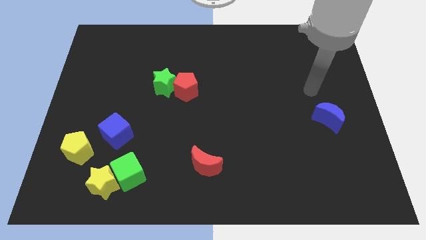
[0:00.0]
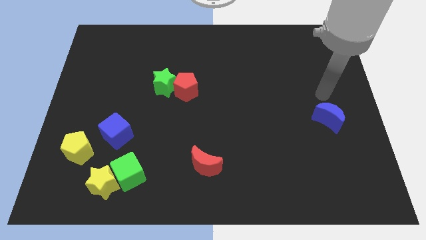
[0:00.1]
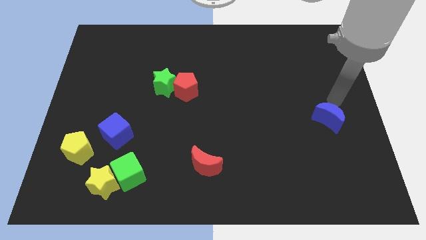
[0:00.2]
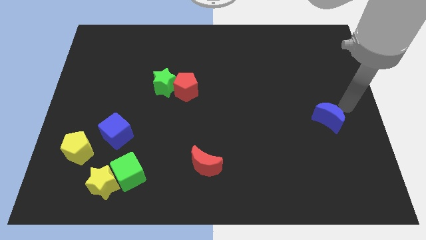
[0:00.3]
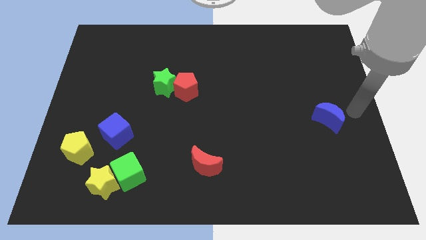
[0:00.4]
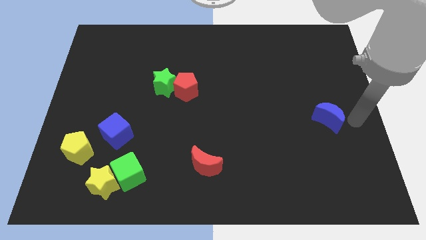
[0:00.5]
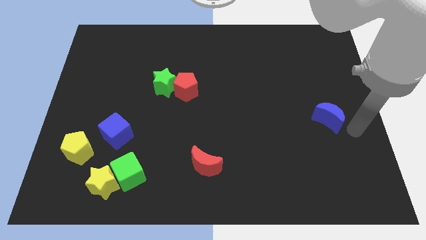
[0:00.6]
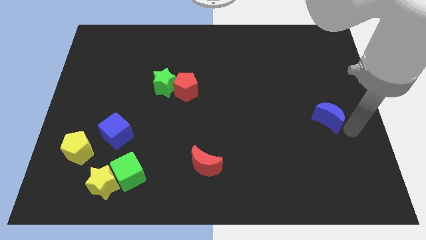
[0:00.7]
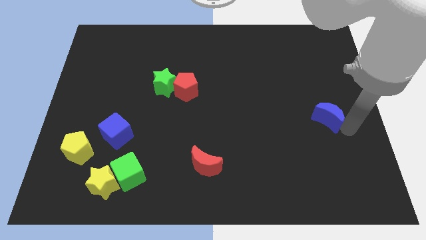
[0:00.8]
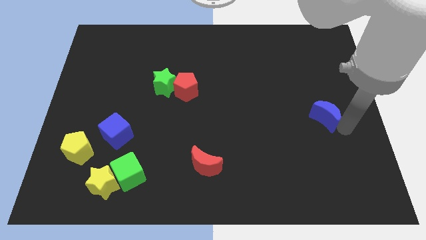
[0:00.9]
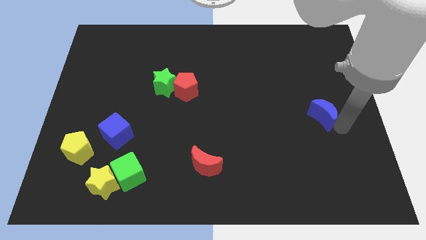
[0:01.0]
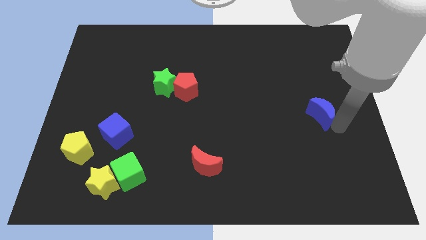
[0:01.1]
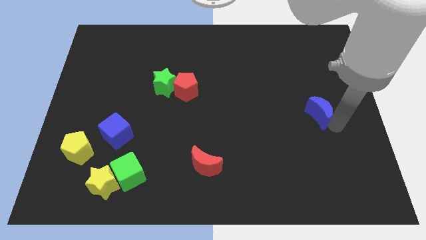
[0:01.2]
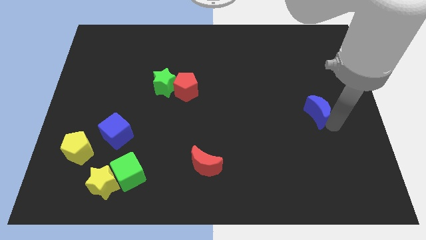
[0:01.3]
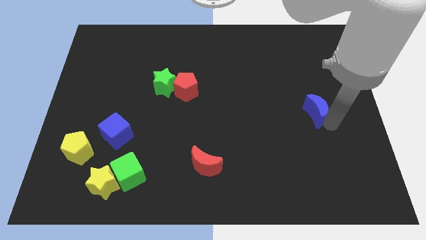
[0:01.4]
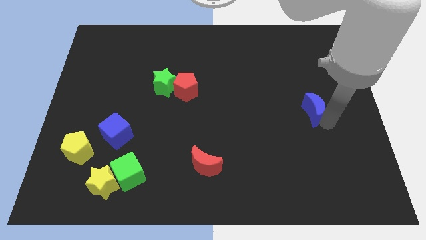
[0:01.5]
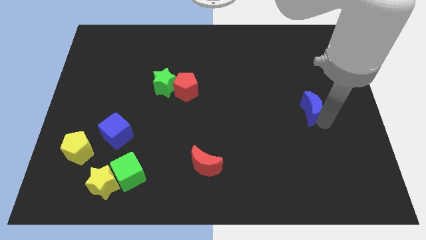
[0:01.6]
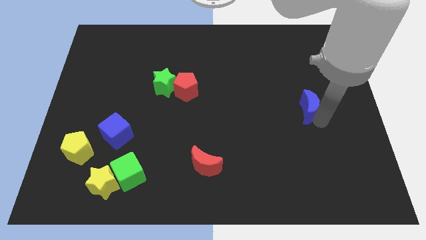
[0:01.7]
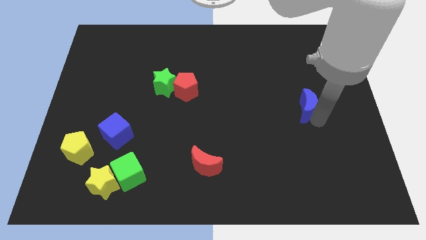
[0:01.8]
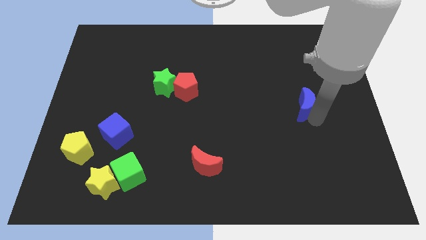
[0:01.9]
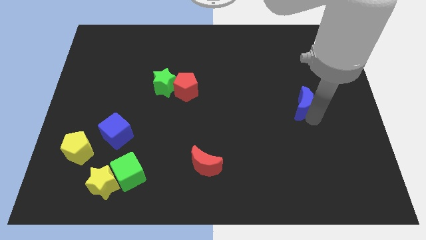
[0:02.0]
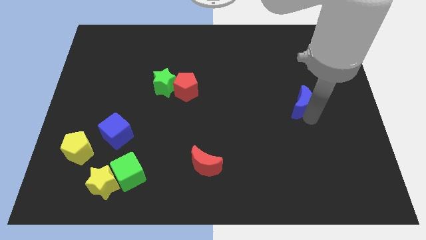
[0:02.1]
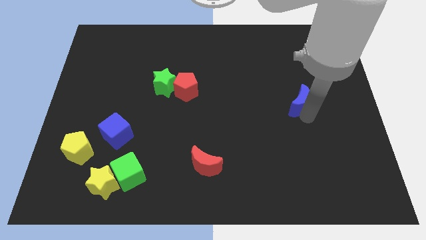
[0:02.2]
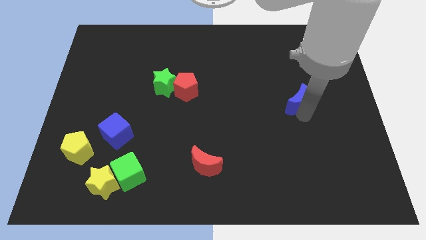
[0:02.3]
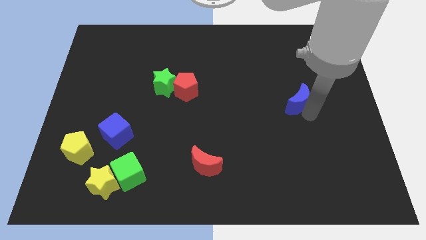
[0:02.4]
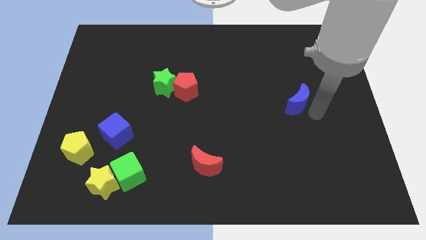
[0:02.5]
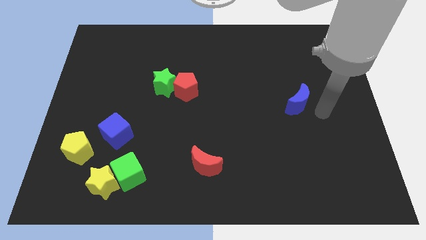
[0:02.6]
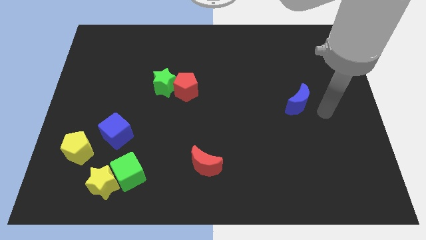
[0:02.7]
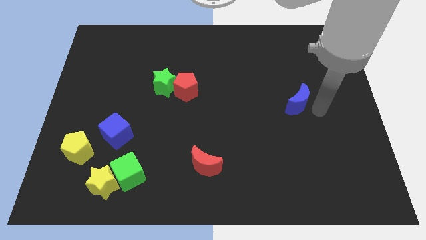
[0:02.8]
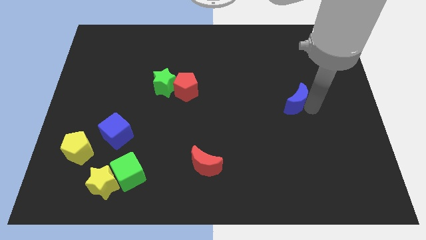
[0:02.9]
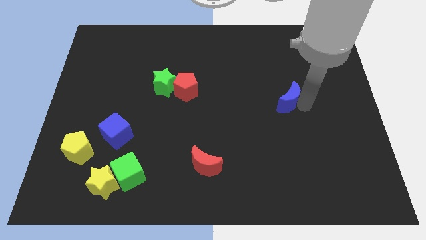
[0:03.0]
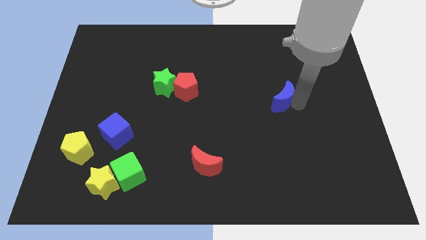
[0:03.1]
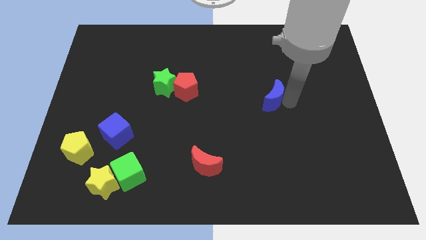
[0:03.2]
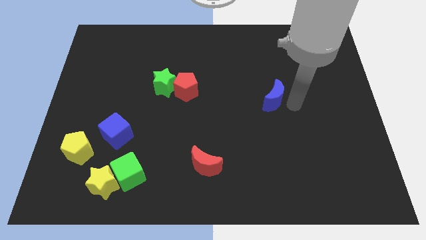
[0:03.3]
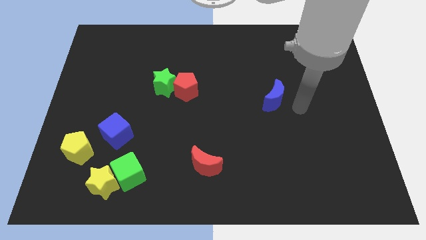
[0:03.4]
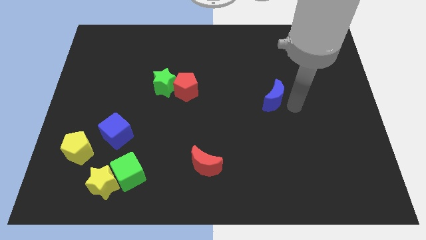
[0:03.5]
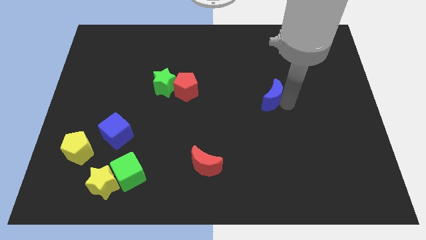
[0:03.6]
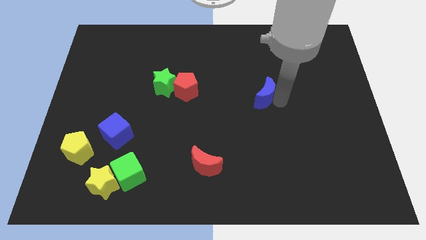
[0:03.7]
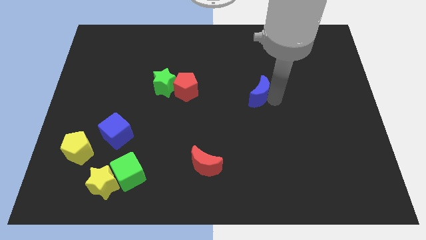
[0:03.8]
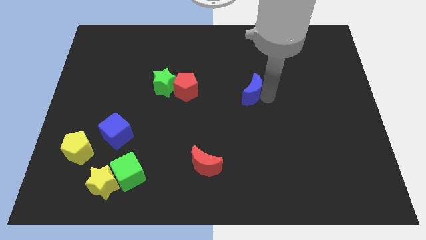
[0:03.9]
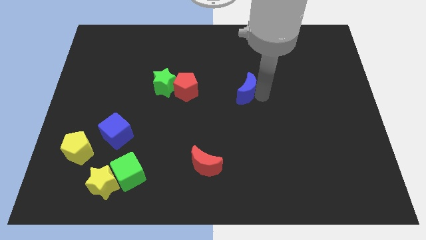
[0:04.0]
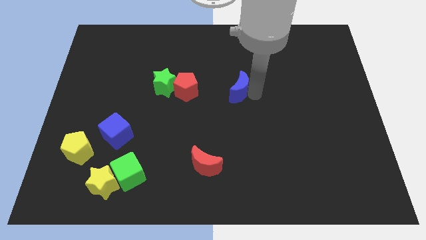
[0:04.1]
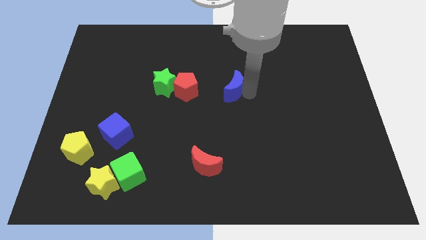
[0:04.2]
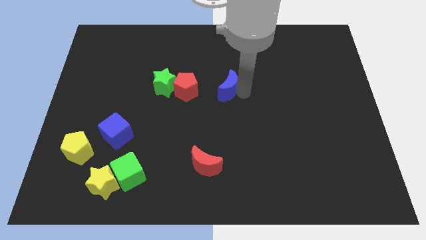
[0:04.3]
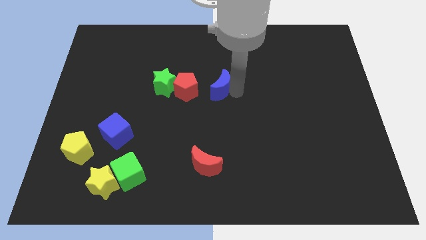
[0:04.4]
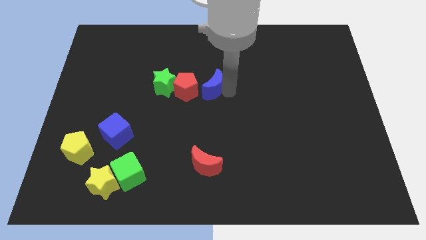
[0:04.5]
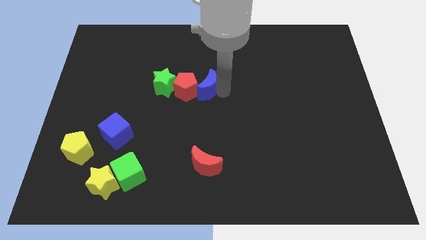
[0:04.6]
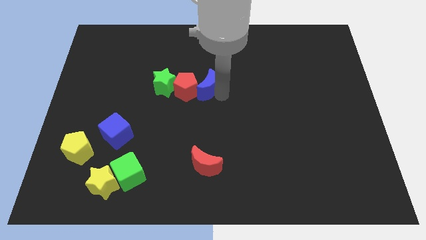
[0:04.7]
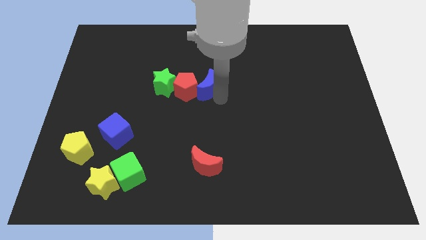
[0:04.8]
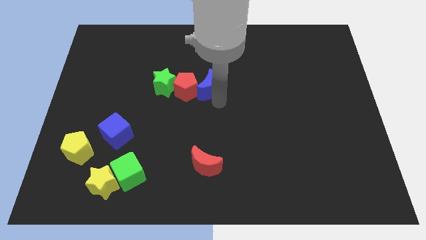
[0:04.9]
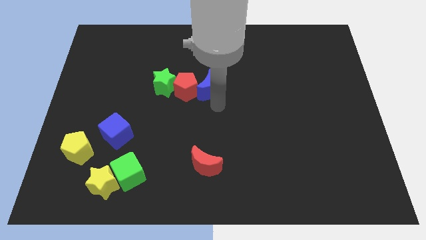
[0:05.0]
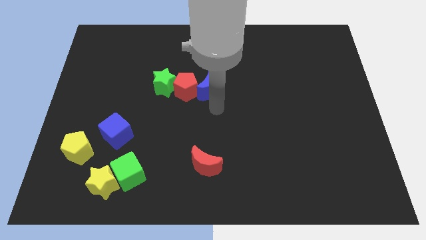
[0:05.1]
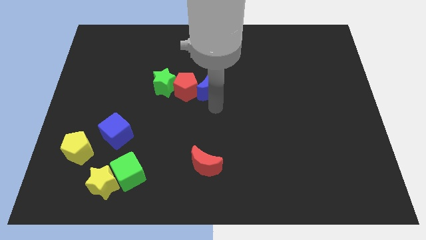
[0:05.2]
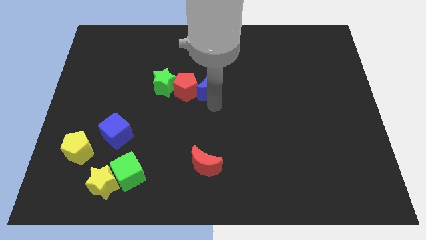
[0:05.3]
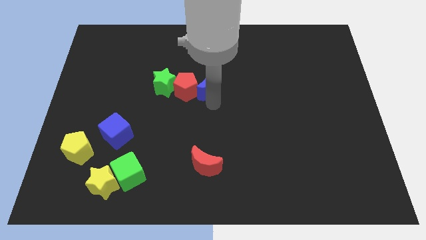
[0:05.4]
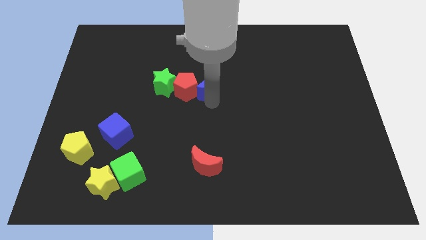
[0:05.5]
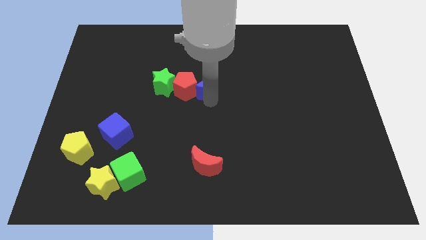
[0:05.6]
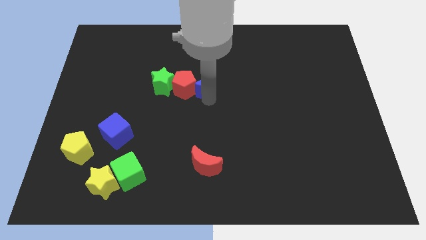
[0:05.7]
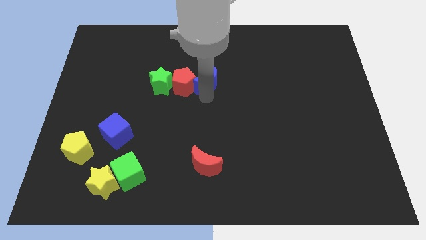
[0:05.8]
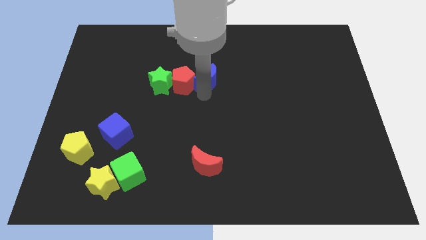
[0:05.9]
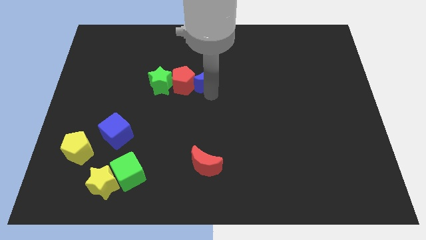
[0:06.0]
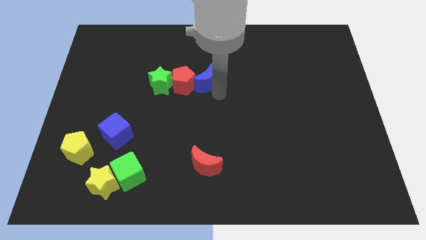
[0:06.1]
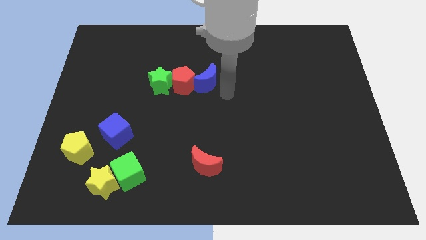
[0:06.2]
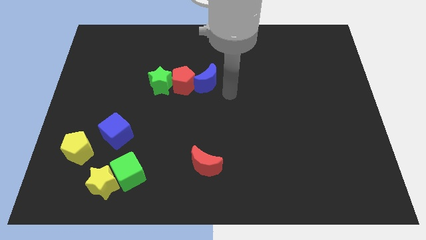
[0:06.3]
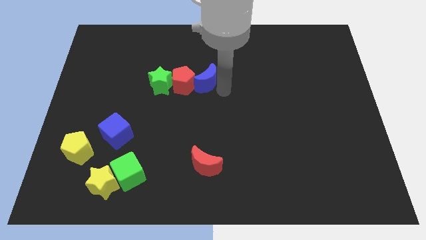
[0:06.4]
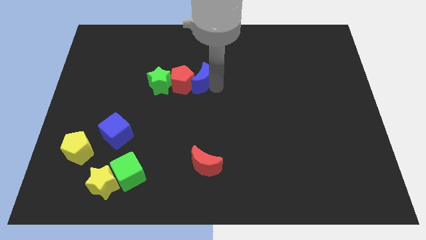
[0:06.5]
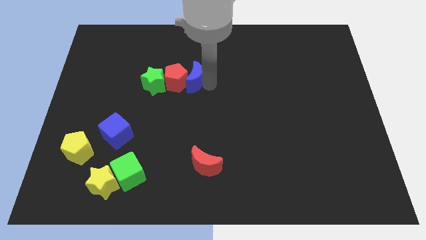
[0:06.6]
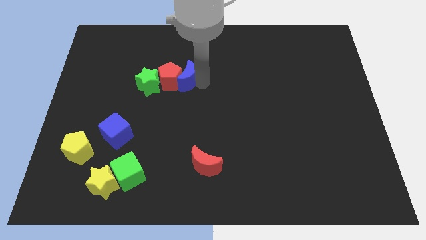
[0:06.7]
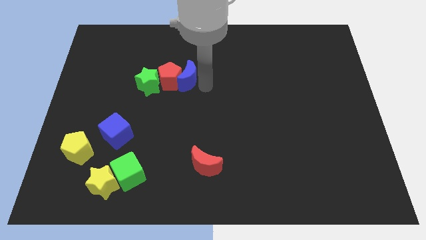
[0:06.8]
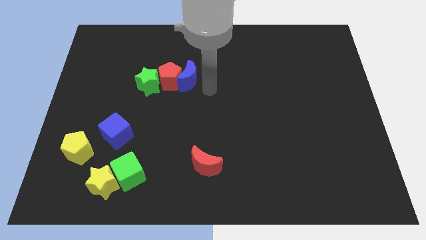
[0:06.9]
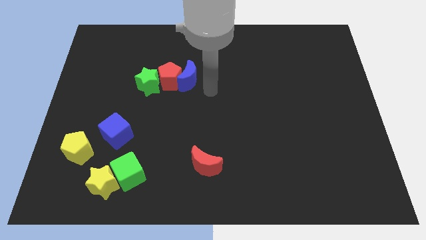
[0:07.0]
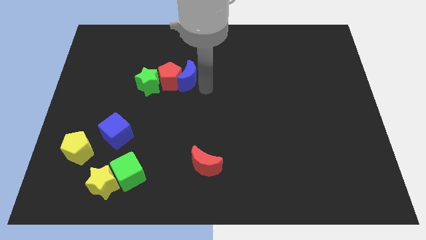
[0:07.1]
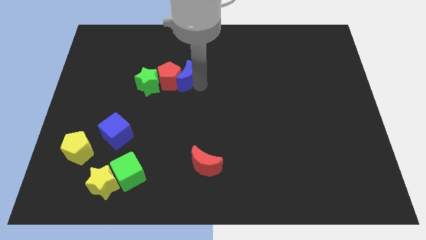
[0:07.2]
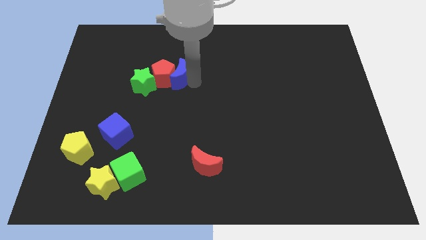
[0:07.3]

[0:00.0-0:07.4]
push the blue moon to the top right side of the green star

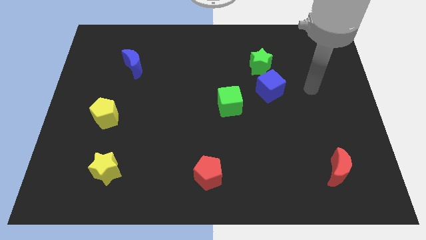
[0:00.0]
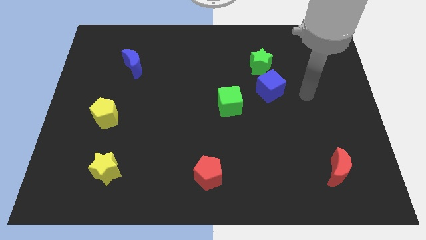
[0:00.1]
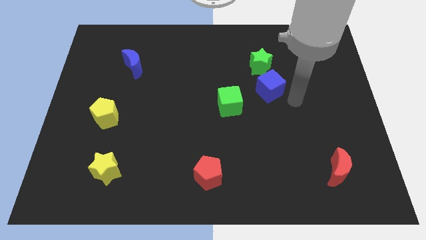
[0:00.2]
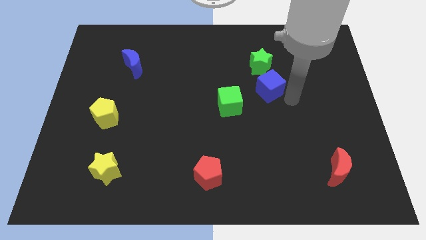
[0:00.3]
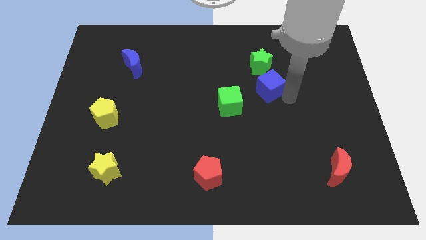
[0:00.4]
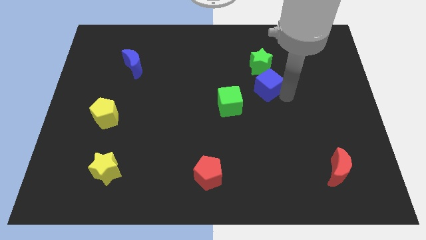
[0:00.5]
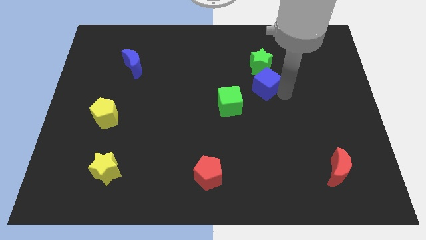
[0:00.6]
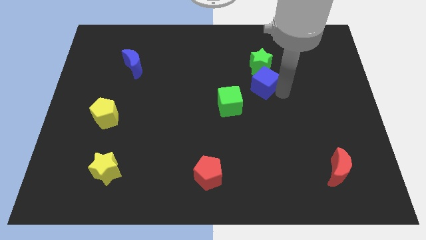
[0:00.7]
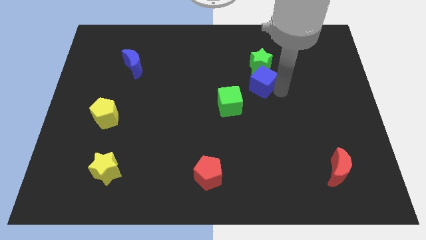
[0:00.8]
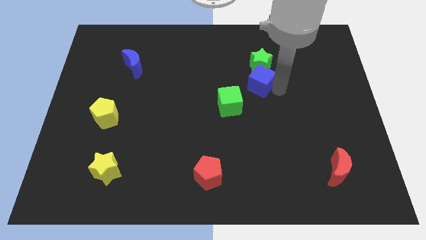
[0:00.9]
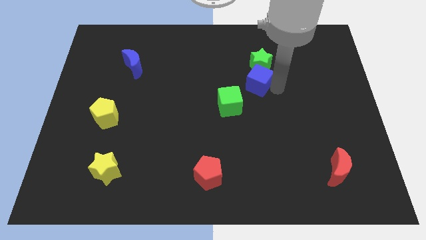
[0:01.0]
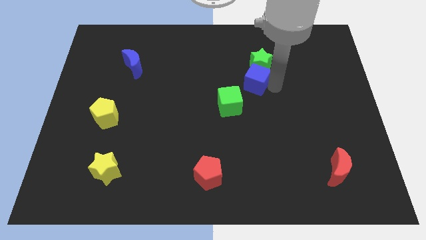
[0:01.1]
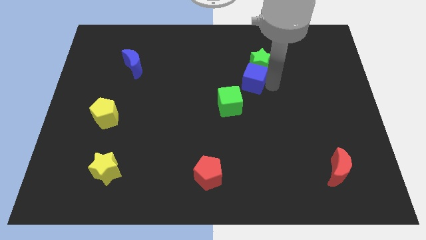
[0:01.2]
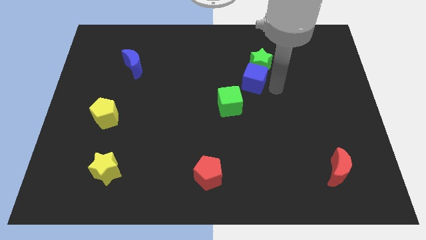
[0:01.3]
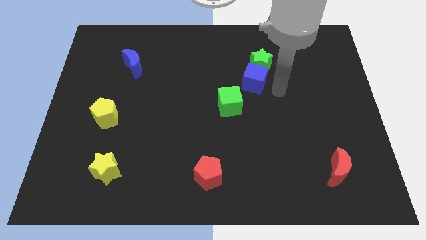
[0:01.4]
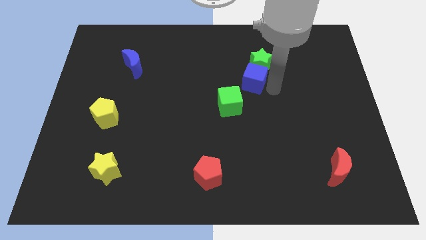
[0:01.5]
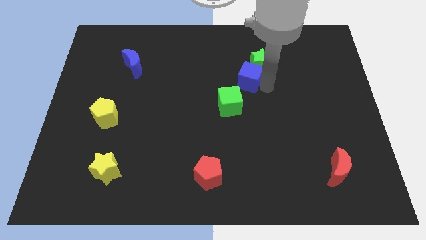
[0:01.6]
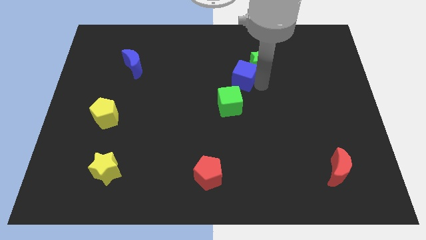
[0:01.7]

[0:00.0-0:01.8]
put the blue cube left of the green star
